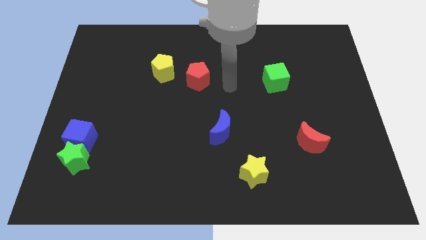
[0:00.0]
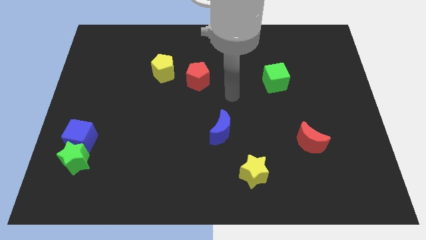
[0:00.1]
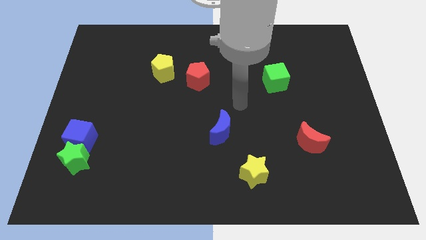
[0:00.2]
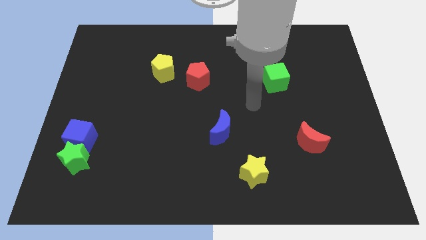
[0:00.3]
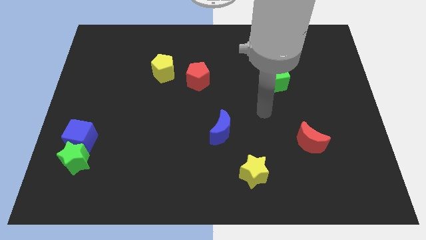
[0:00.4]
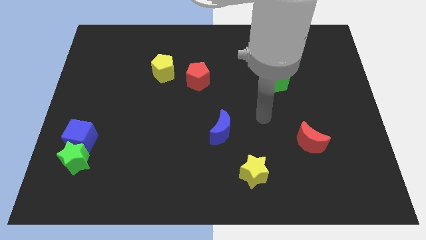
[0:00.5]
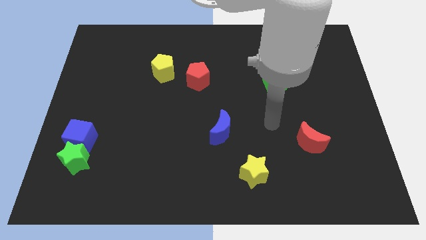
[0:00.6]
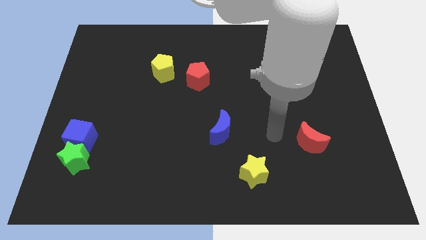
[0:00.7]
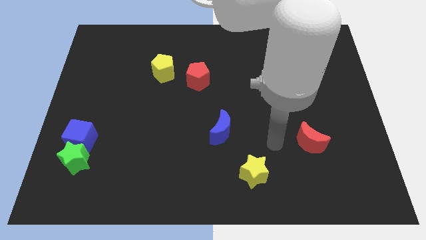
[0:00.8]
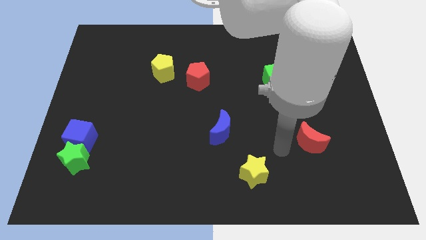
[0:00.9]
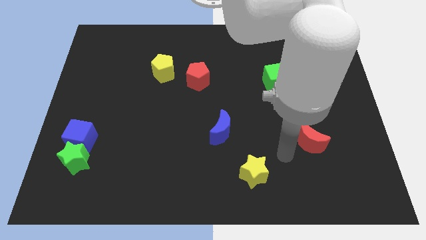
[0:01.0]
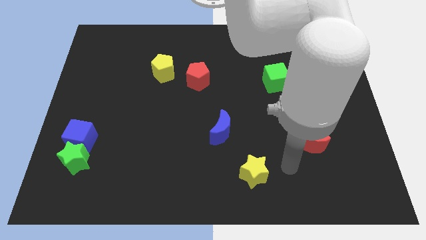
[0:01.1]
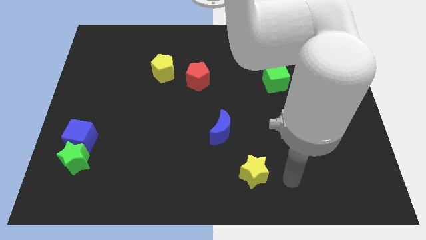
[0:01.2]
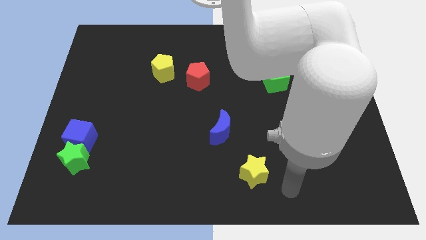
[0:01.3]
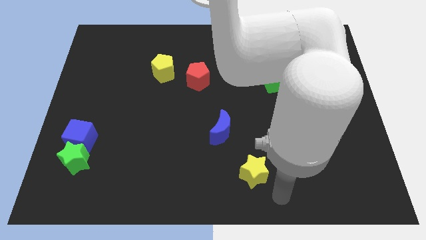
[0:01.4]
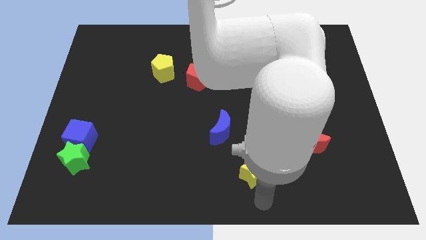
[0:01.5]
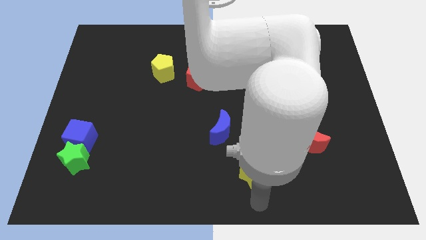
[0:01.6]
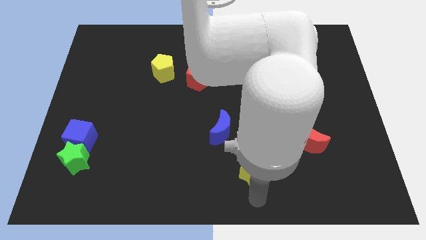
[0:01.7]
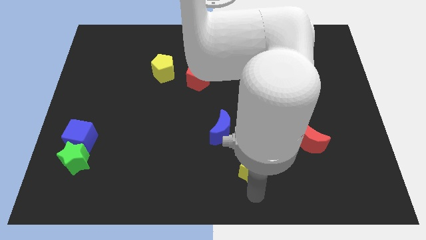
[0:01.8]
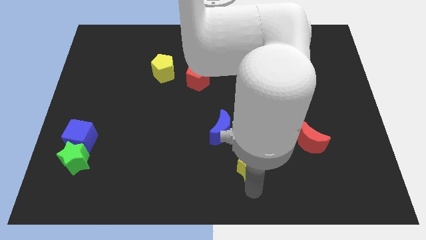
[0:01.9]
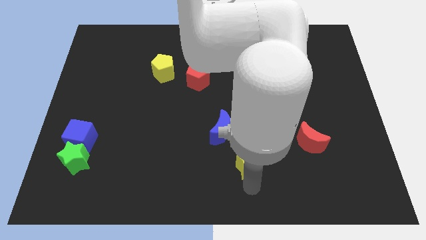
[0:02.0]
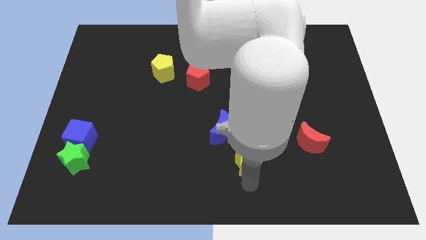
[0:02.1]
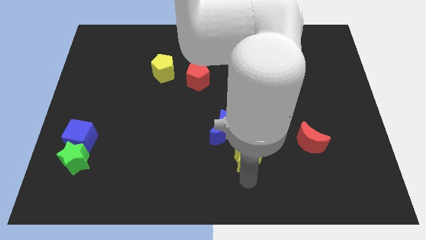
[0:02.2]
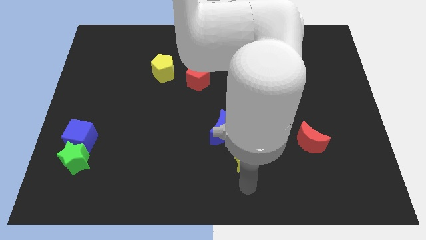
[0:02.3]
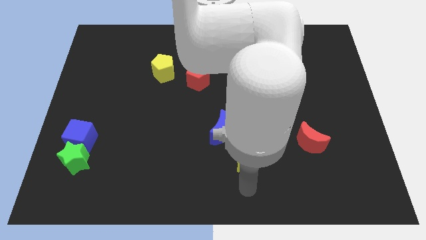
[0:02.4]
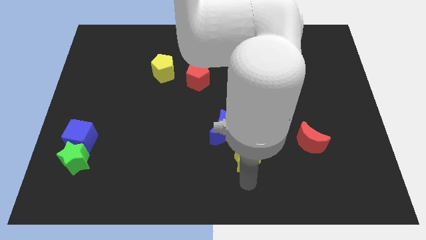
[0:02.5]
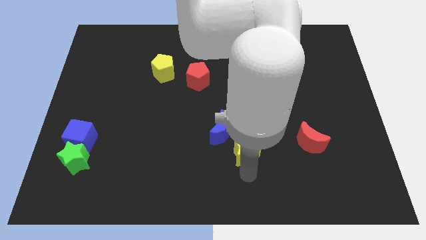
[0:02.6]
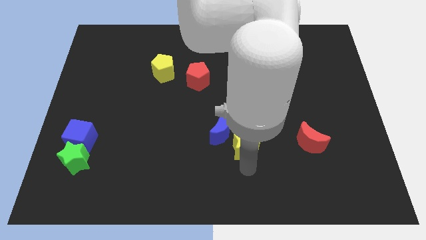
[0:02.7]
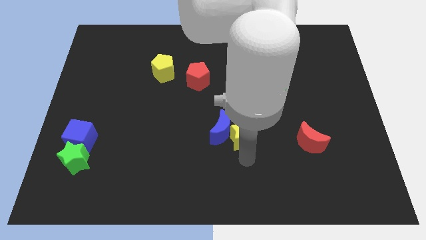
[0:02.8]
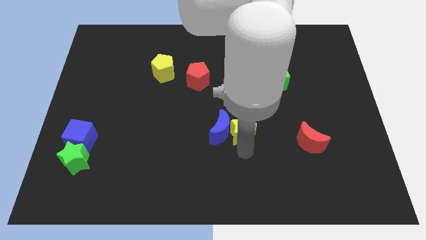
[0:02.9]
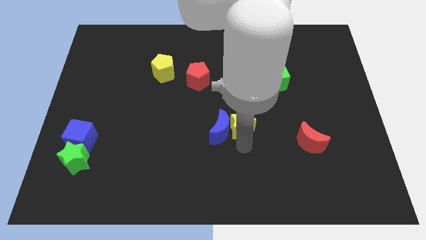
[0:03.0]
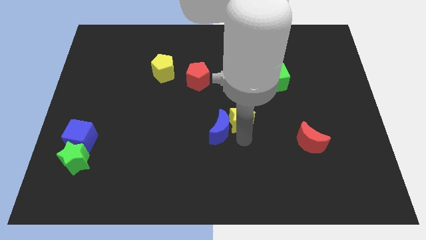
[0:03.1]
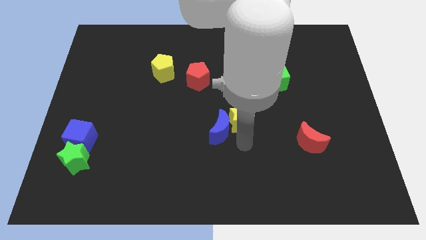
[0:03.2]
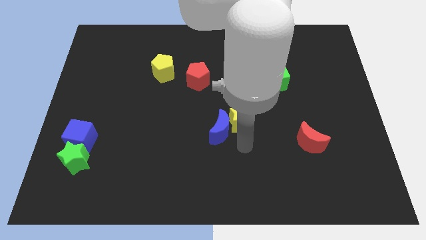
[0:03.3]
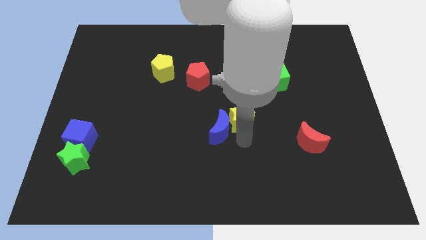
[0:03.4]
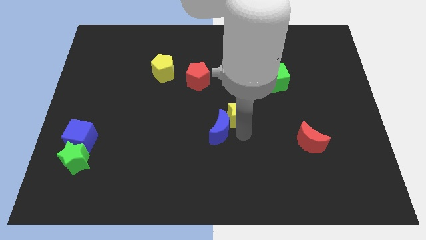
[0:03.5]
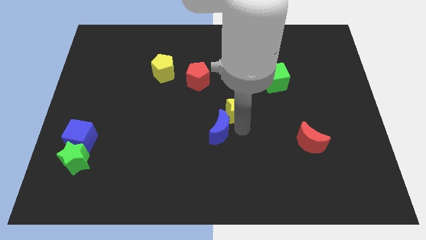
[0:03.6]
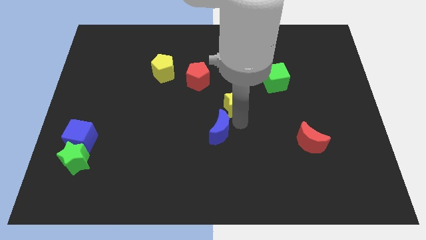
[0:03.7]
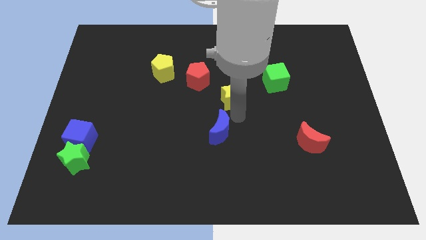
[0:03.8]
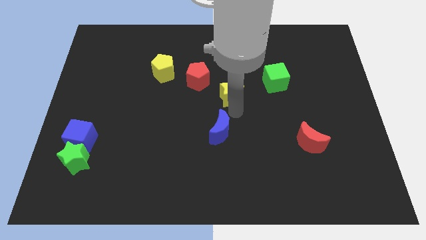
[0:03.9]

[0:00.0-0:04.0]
push the yellow star up

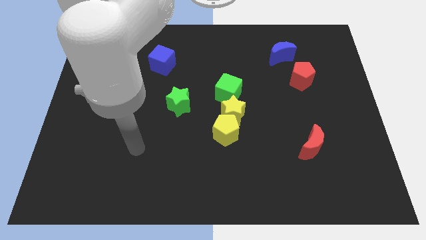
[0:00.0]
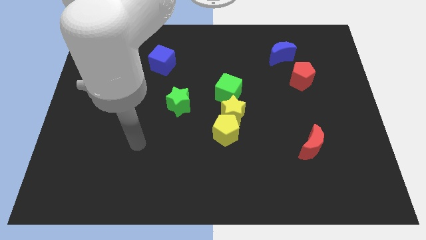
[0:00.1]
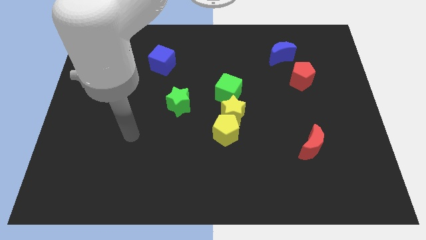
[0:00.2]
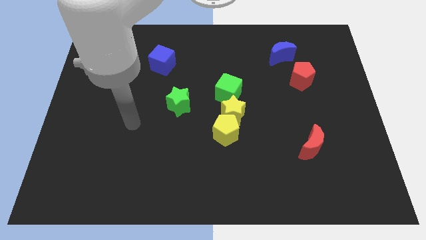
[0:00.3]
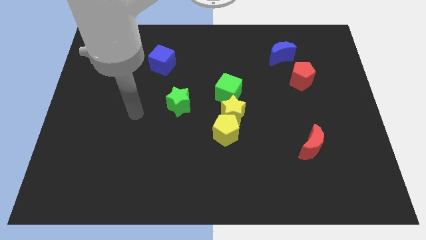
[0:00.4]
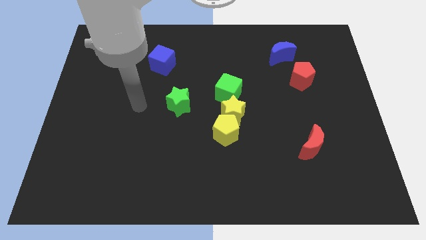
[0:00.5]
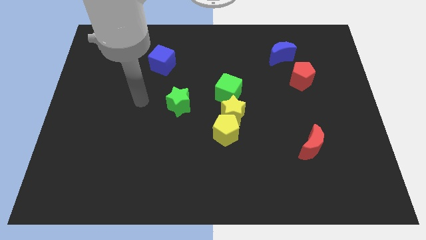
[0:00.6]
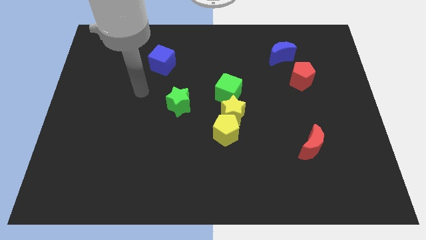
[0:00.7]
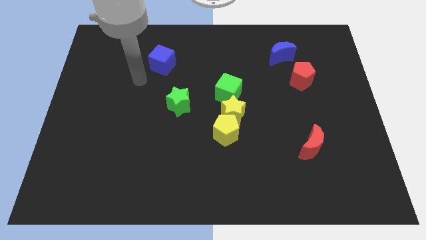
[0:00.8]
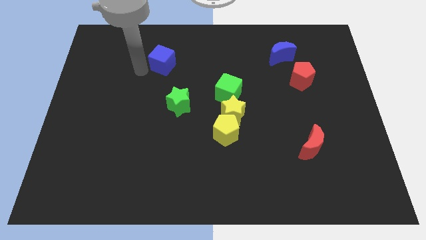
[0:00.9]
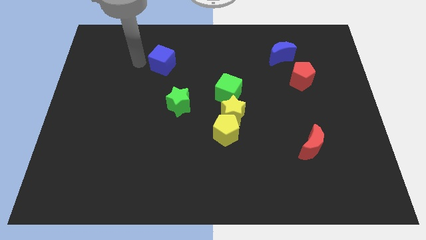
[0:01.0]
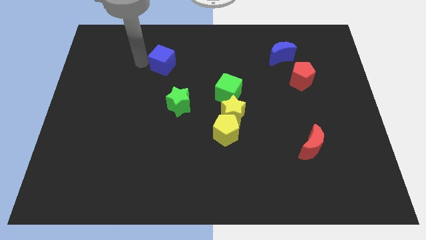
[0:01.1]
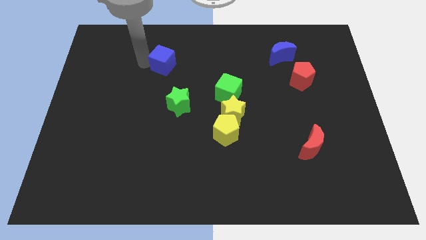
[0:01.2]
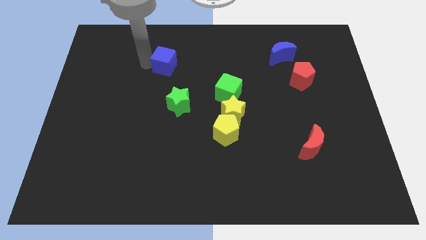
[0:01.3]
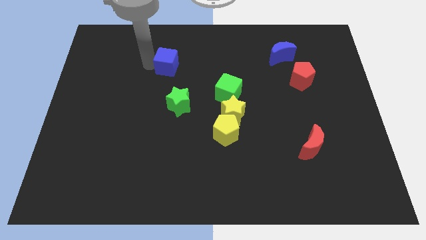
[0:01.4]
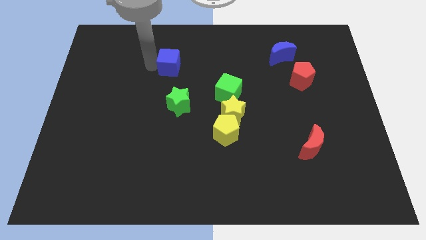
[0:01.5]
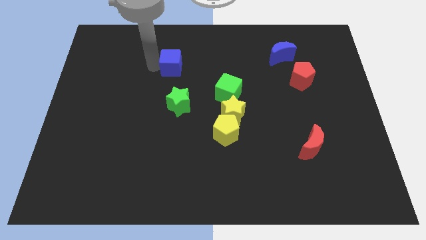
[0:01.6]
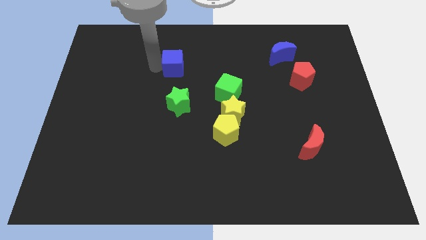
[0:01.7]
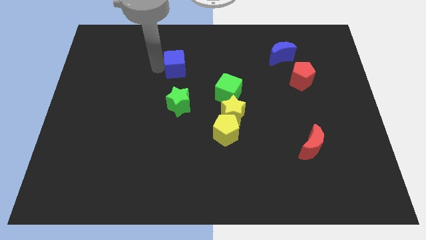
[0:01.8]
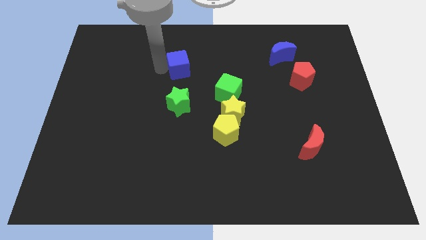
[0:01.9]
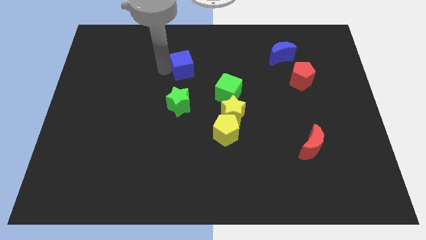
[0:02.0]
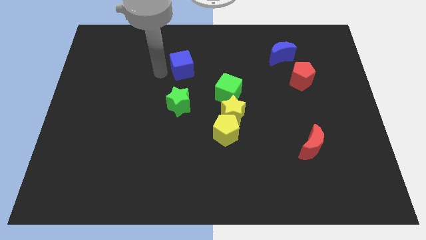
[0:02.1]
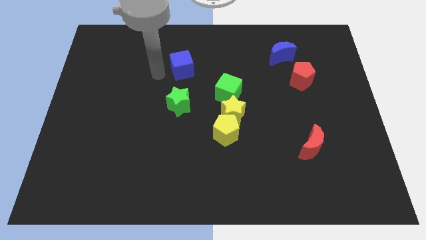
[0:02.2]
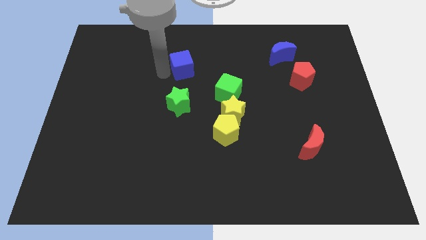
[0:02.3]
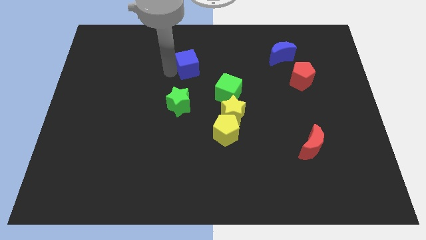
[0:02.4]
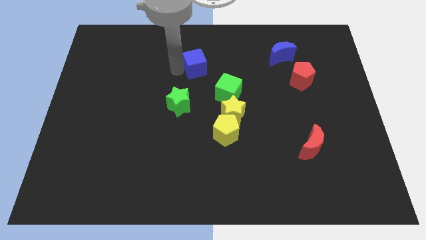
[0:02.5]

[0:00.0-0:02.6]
move the blue cube to the right a bit

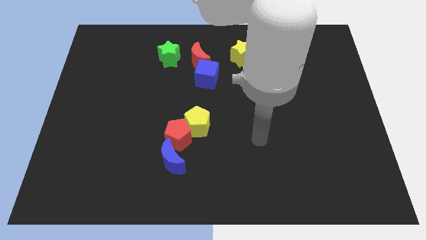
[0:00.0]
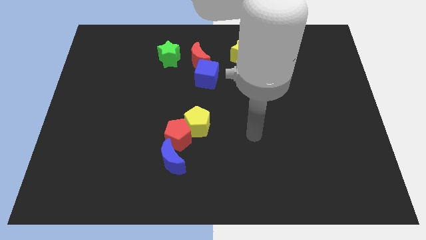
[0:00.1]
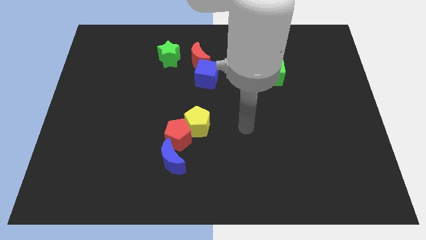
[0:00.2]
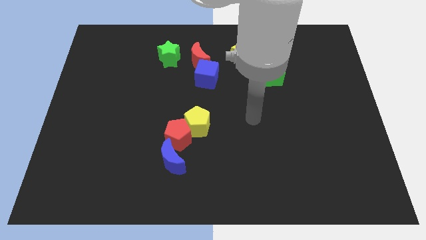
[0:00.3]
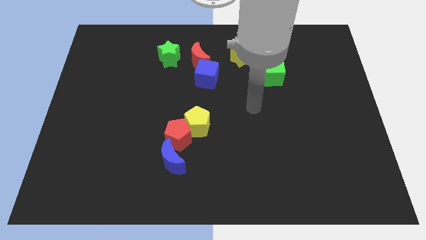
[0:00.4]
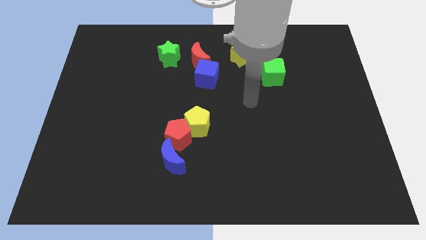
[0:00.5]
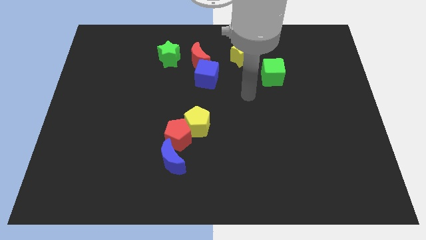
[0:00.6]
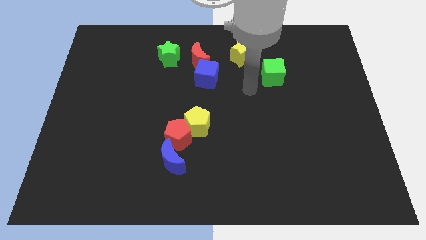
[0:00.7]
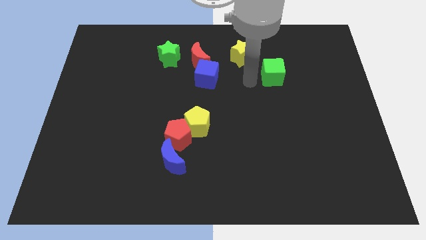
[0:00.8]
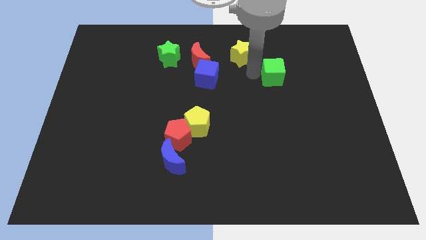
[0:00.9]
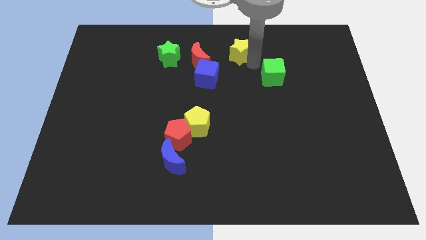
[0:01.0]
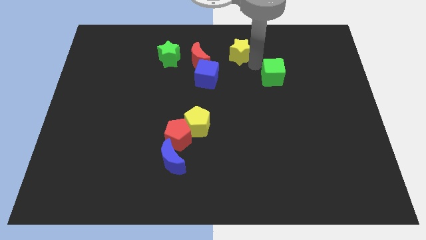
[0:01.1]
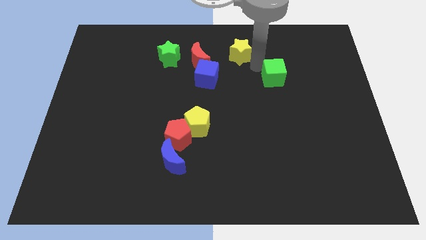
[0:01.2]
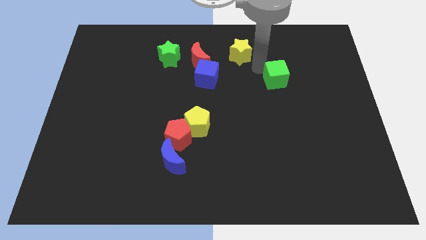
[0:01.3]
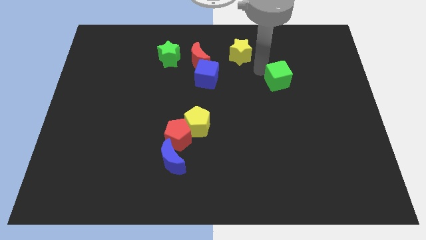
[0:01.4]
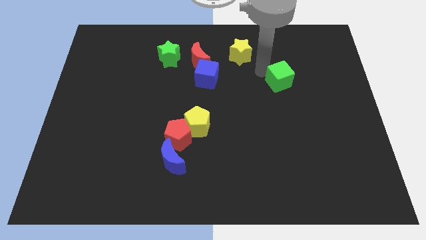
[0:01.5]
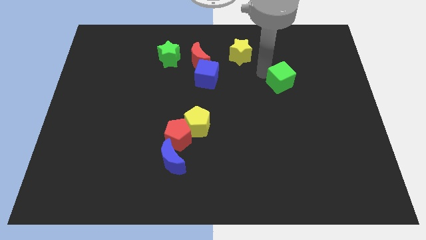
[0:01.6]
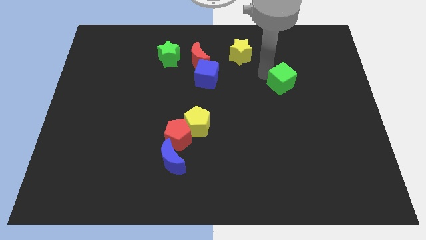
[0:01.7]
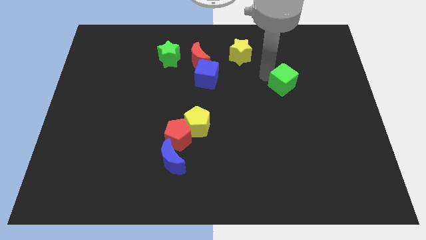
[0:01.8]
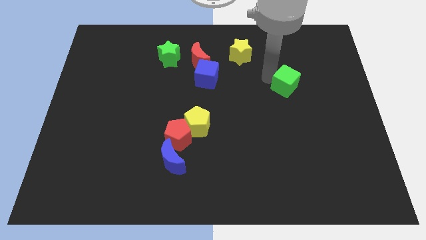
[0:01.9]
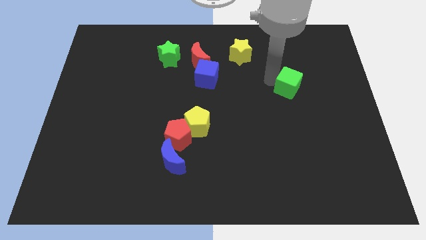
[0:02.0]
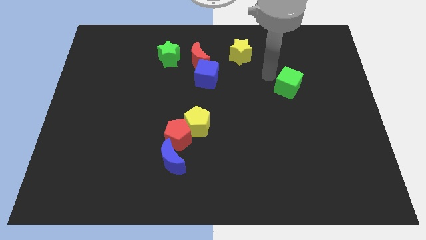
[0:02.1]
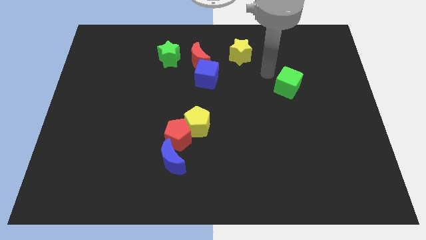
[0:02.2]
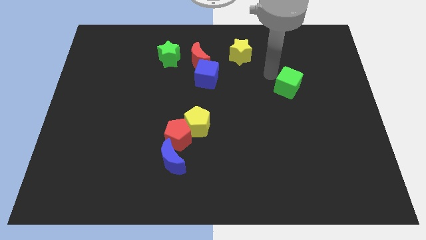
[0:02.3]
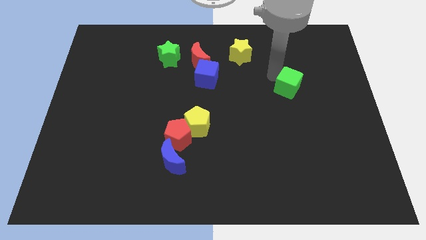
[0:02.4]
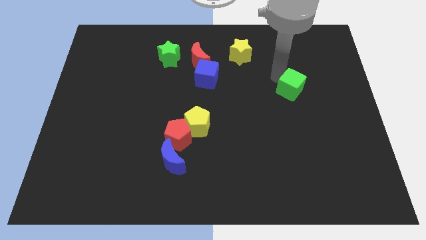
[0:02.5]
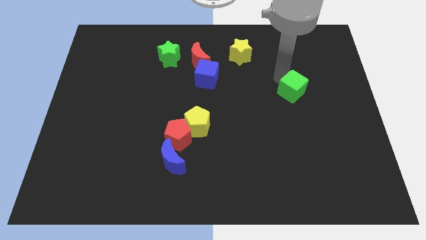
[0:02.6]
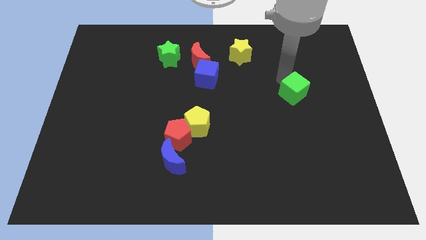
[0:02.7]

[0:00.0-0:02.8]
move the green cube slightly diagonally downwards and to the right
